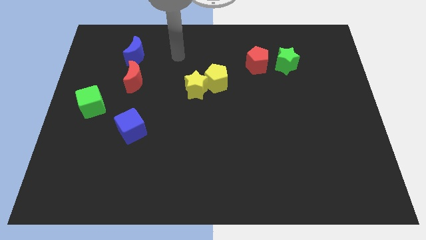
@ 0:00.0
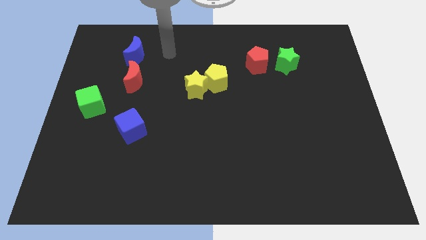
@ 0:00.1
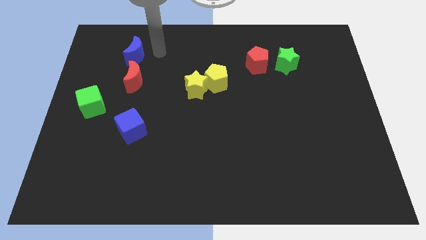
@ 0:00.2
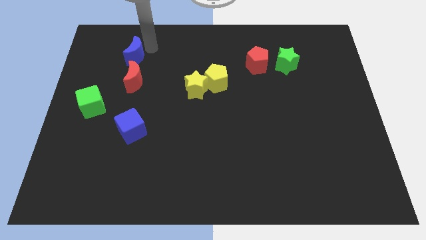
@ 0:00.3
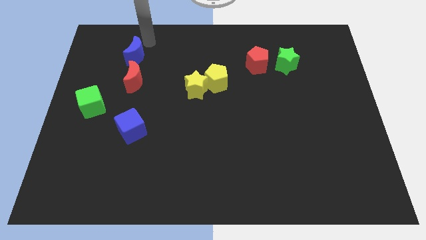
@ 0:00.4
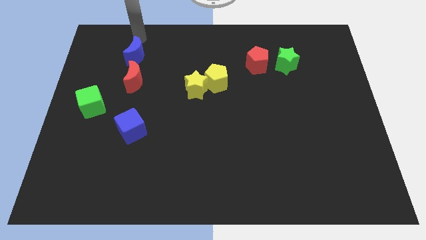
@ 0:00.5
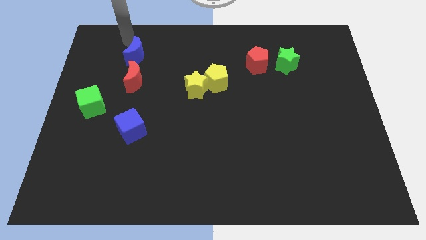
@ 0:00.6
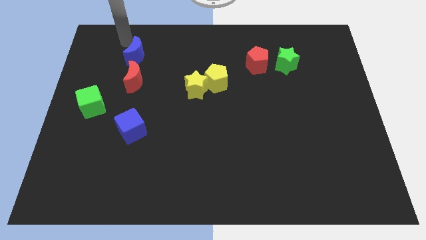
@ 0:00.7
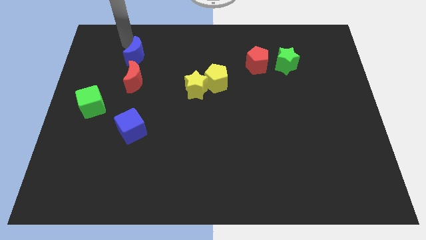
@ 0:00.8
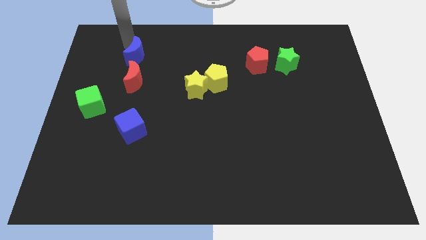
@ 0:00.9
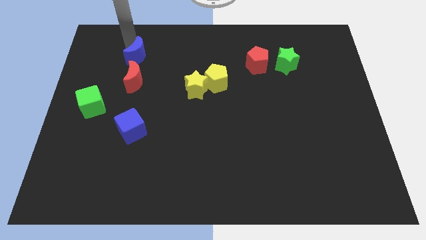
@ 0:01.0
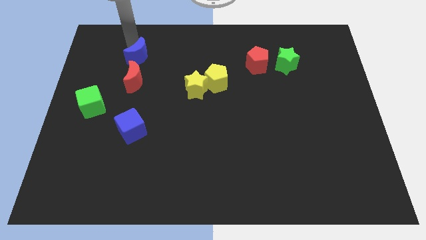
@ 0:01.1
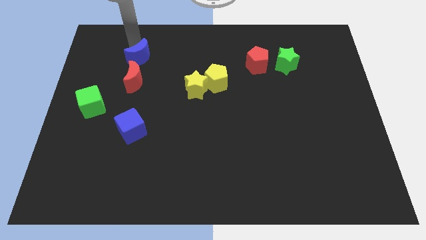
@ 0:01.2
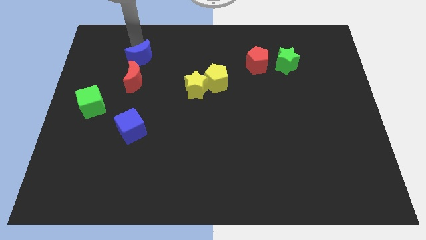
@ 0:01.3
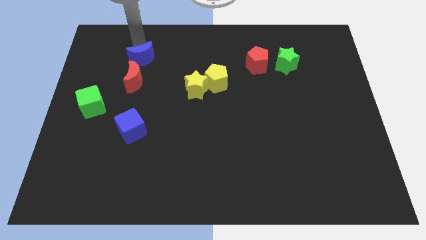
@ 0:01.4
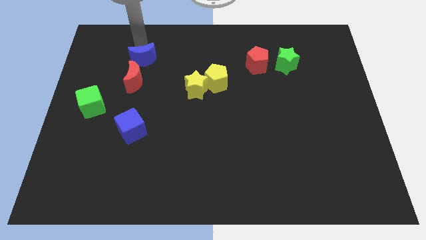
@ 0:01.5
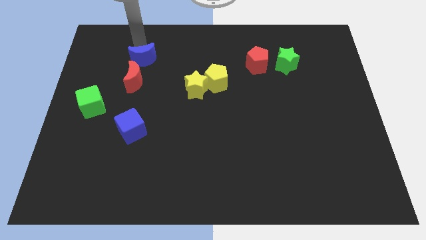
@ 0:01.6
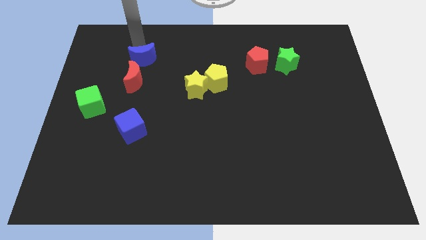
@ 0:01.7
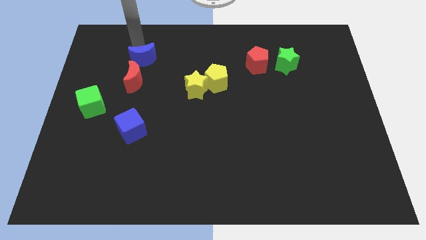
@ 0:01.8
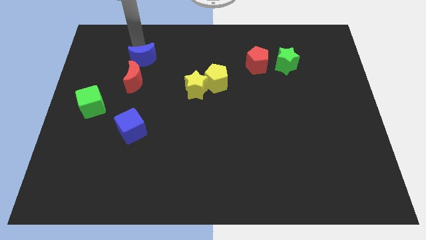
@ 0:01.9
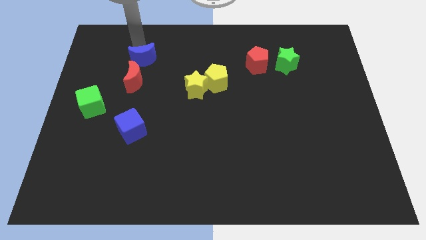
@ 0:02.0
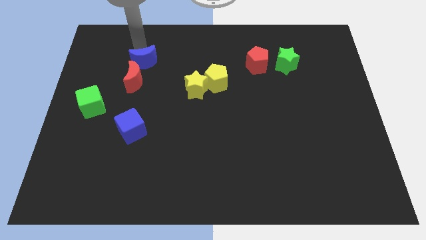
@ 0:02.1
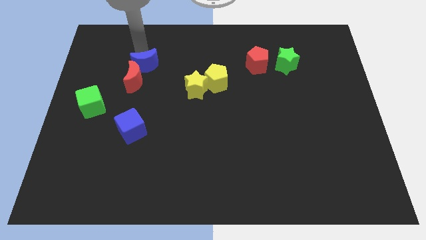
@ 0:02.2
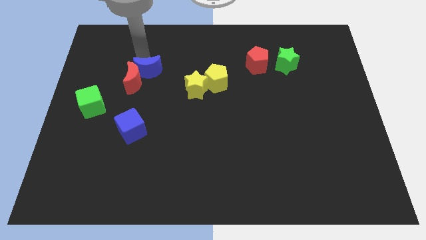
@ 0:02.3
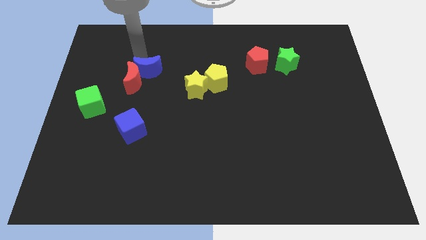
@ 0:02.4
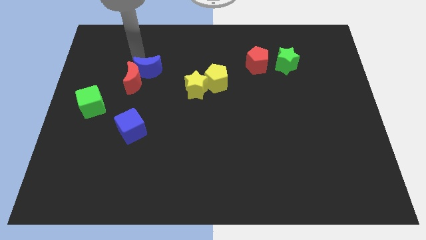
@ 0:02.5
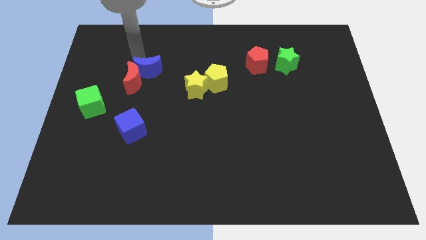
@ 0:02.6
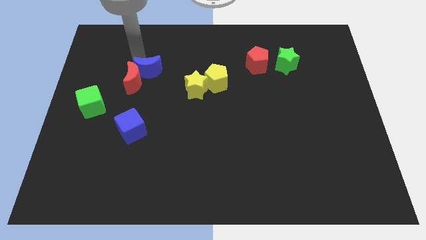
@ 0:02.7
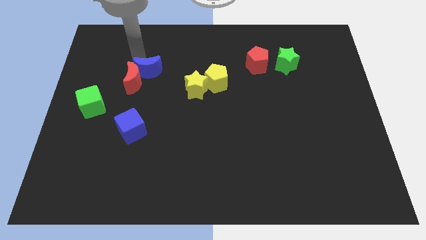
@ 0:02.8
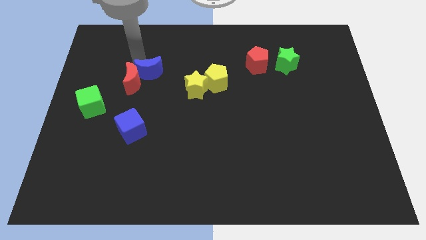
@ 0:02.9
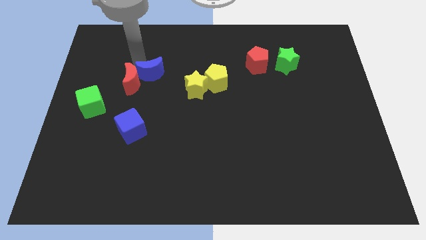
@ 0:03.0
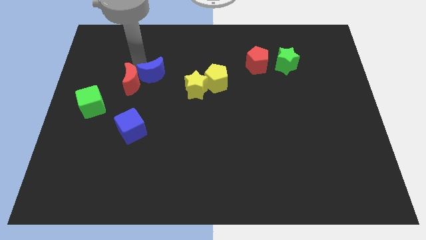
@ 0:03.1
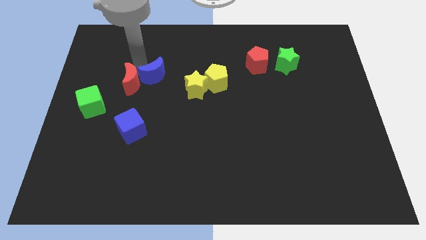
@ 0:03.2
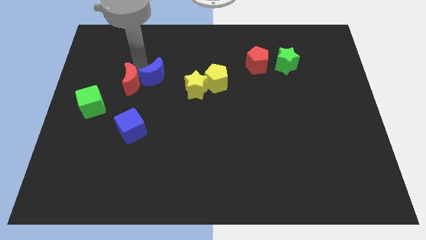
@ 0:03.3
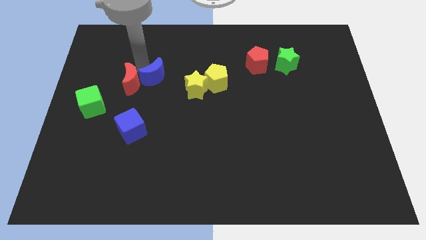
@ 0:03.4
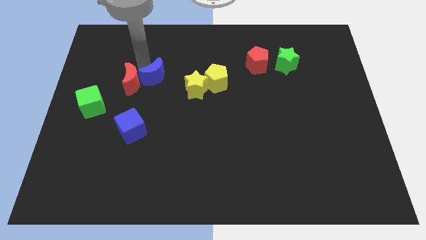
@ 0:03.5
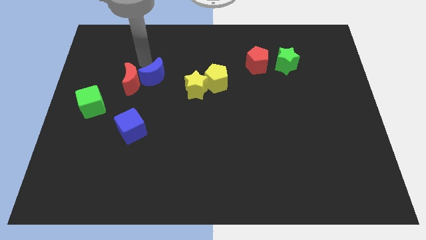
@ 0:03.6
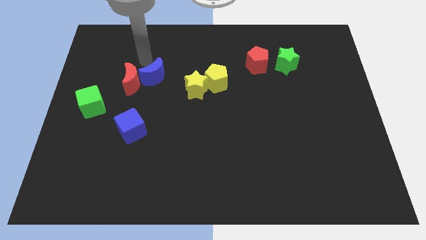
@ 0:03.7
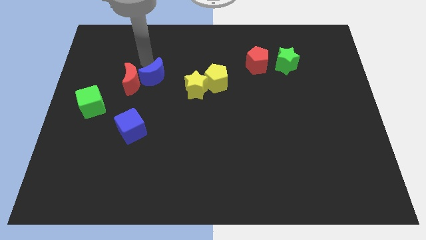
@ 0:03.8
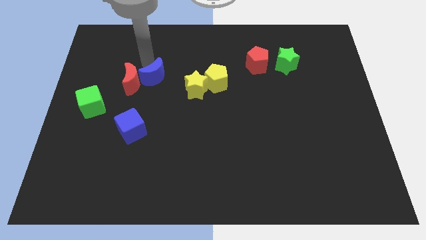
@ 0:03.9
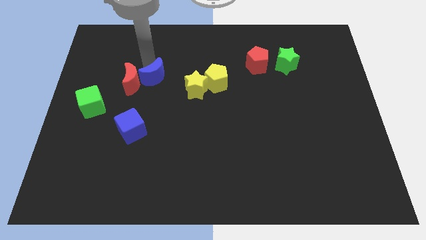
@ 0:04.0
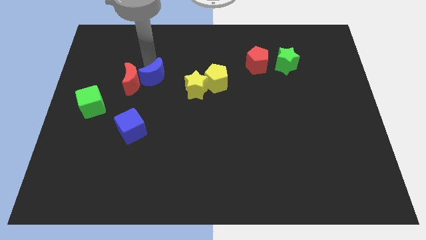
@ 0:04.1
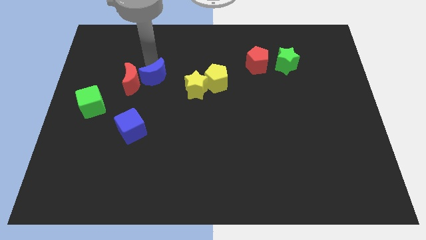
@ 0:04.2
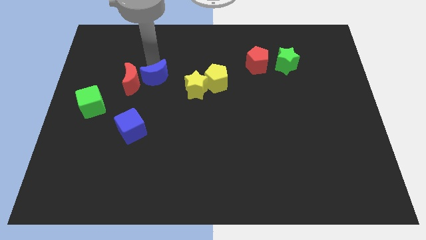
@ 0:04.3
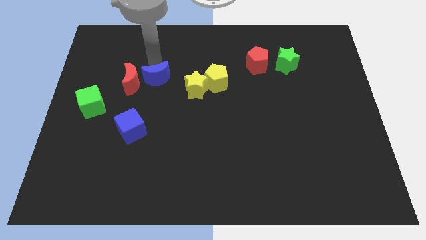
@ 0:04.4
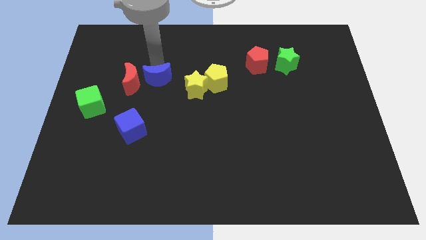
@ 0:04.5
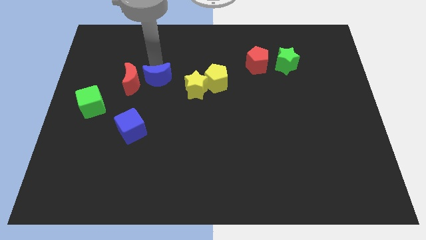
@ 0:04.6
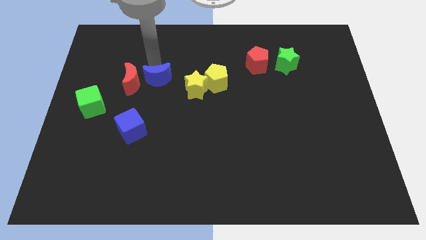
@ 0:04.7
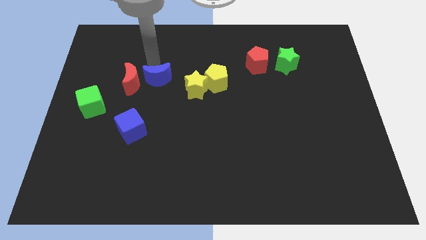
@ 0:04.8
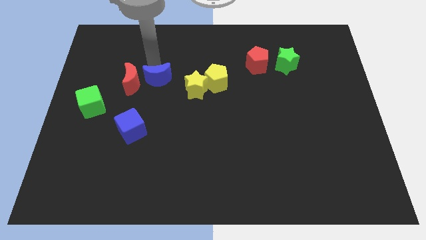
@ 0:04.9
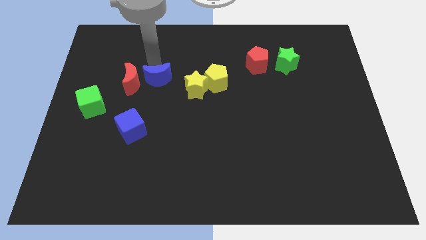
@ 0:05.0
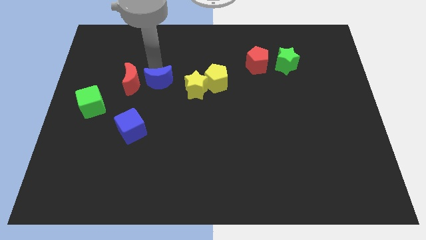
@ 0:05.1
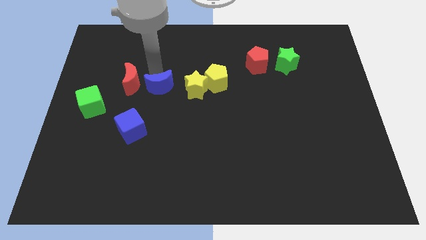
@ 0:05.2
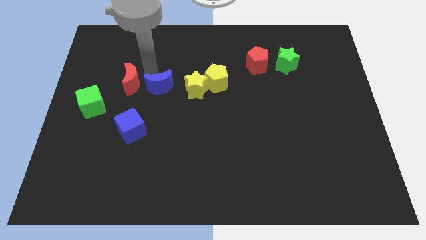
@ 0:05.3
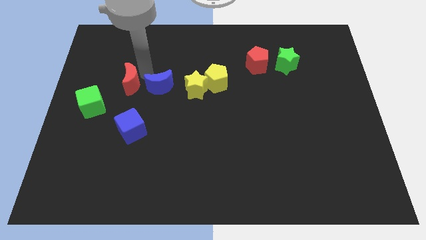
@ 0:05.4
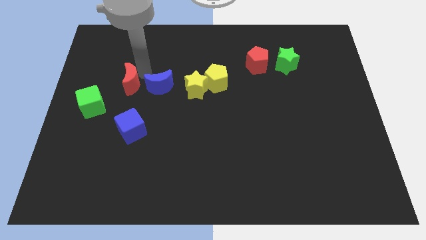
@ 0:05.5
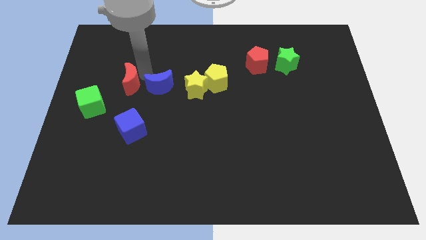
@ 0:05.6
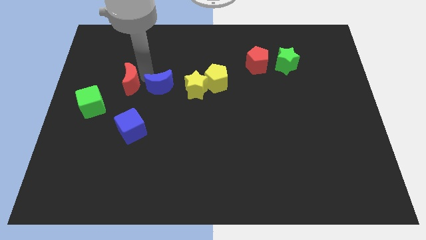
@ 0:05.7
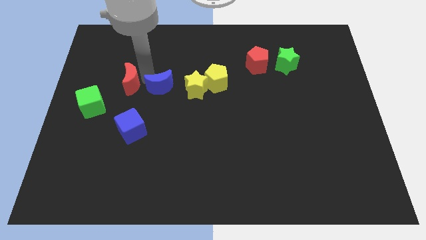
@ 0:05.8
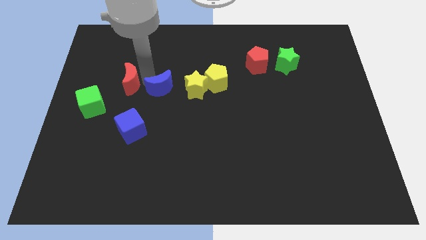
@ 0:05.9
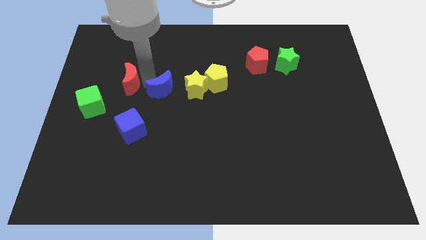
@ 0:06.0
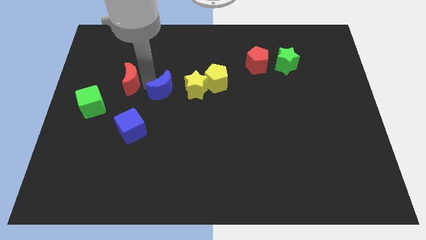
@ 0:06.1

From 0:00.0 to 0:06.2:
move the blue moon to the middle of the board
